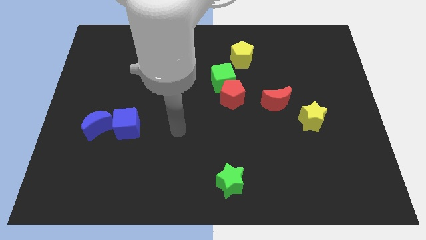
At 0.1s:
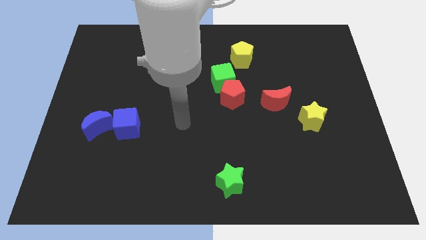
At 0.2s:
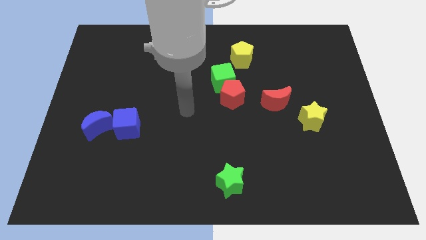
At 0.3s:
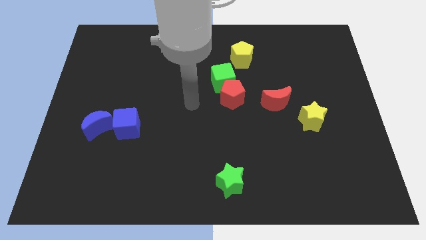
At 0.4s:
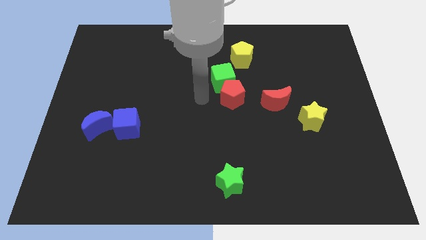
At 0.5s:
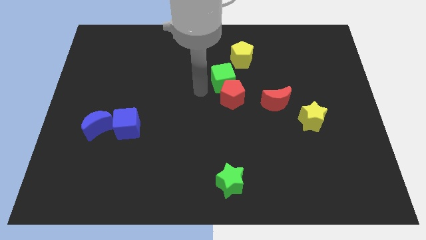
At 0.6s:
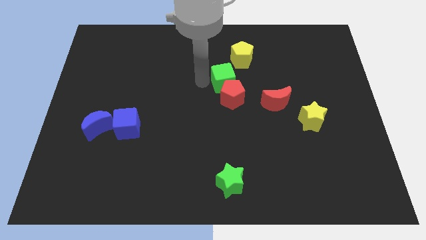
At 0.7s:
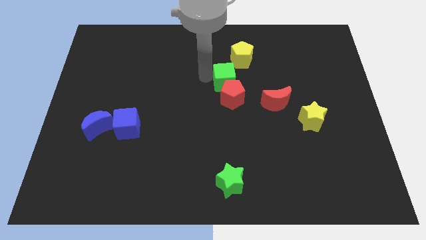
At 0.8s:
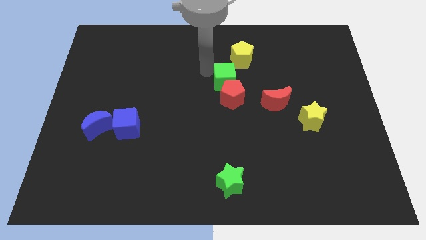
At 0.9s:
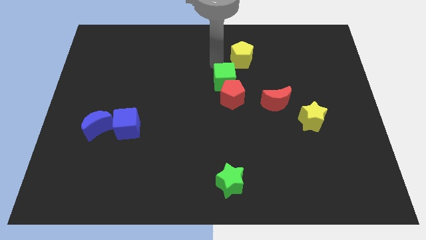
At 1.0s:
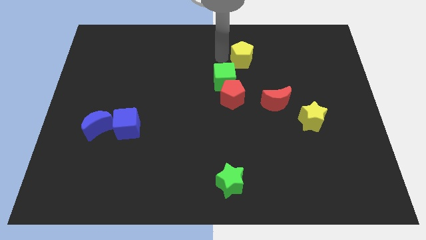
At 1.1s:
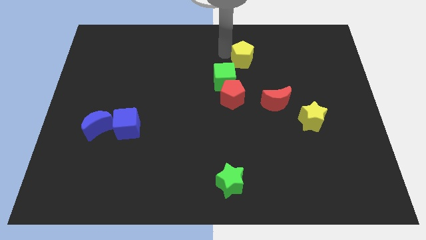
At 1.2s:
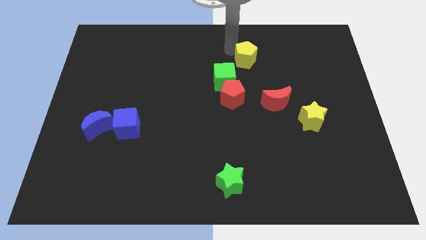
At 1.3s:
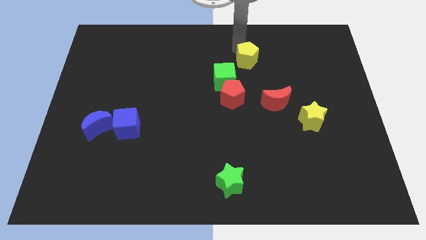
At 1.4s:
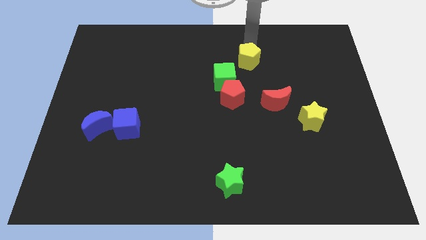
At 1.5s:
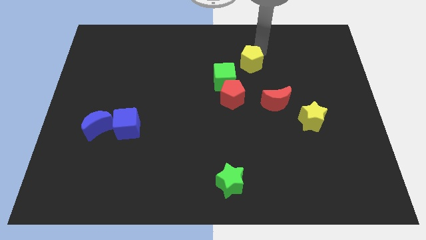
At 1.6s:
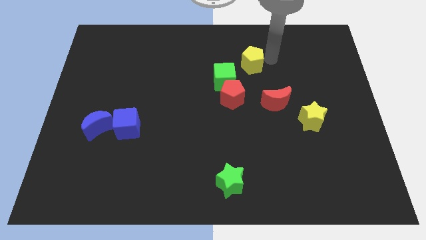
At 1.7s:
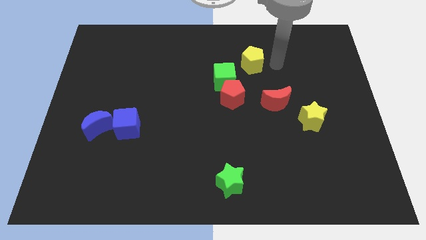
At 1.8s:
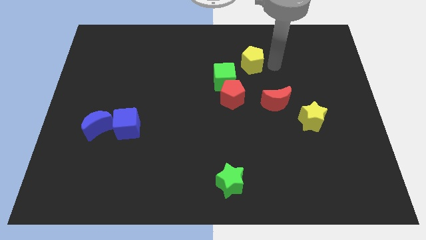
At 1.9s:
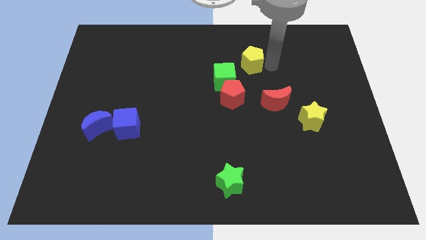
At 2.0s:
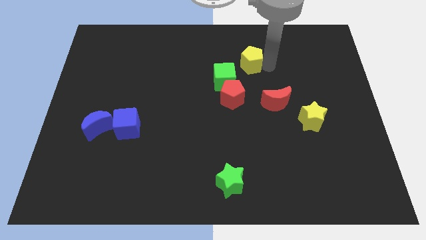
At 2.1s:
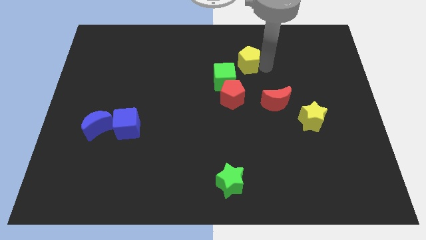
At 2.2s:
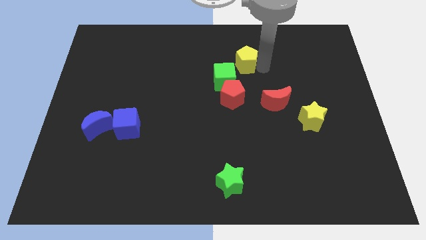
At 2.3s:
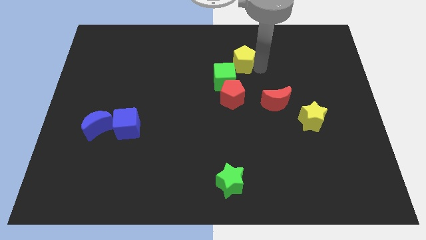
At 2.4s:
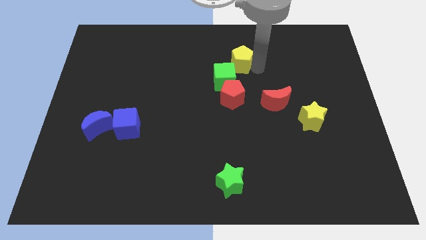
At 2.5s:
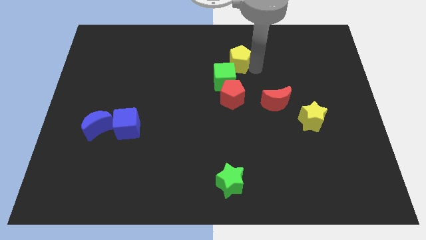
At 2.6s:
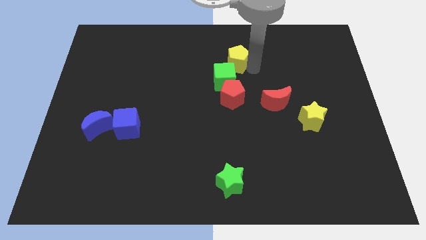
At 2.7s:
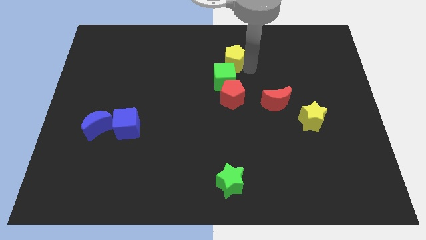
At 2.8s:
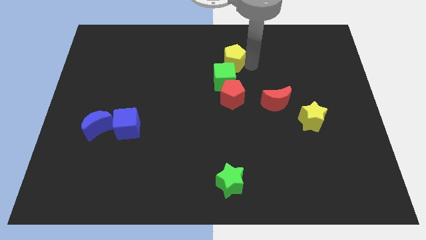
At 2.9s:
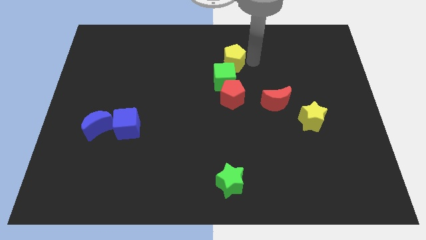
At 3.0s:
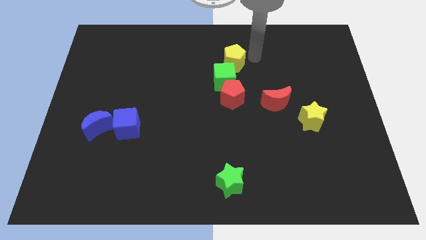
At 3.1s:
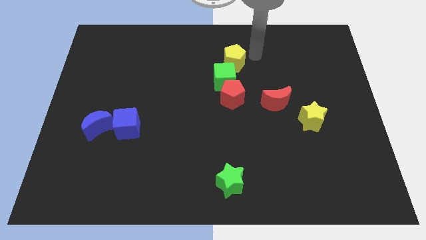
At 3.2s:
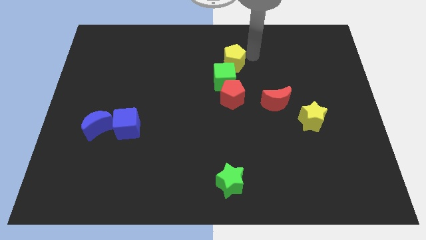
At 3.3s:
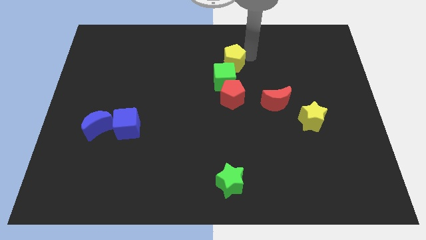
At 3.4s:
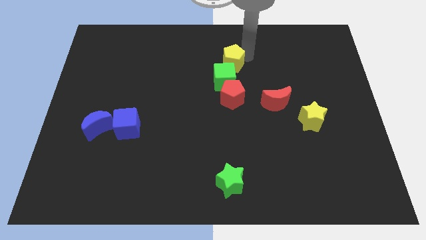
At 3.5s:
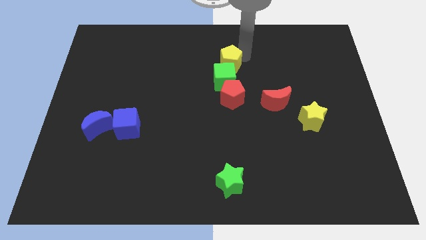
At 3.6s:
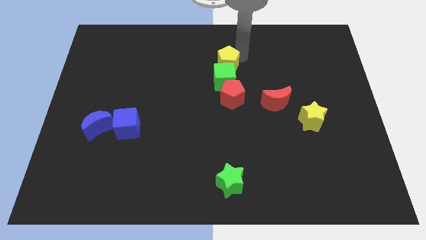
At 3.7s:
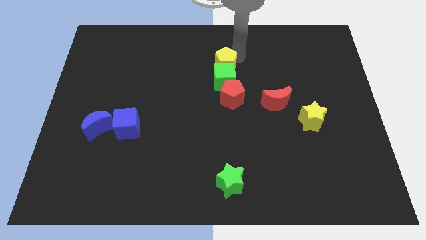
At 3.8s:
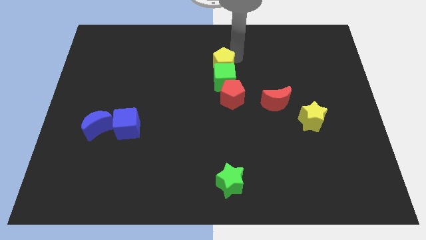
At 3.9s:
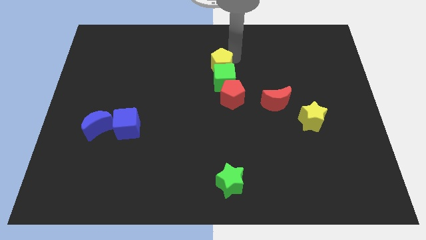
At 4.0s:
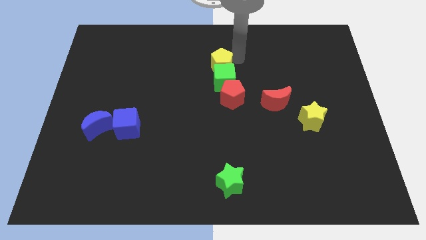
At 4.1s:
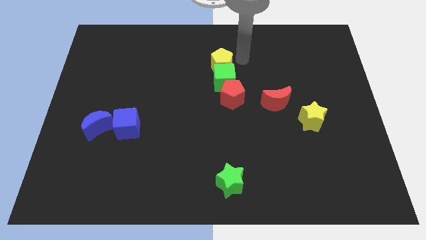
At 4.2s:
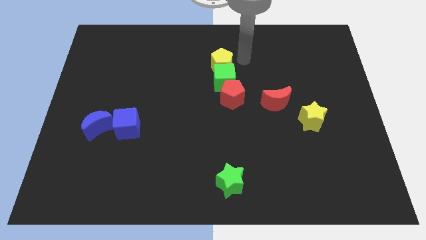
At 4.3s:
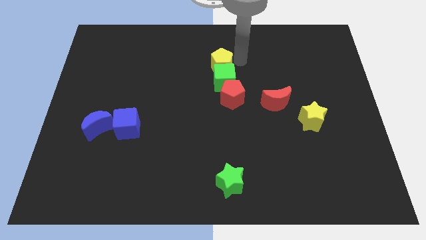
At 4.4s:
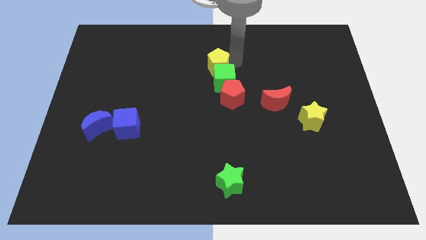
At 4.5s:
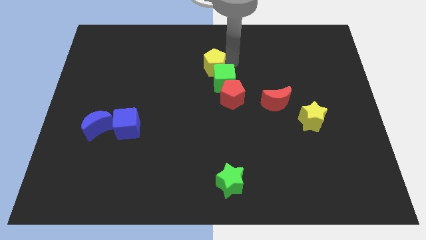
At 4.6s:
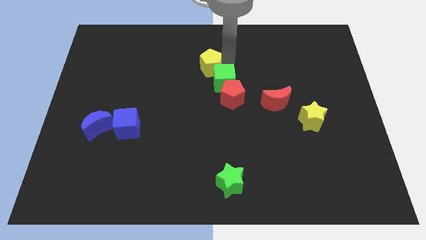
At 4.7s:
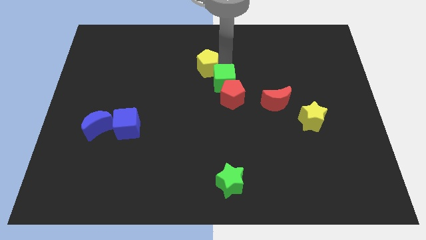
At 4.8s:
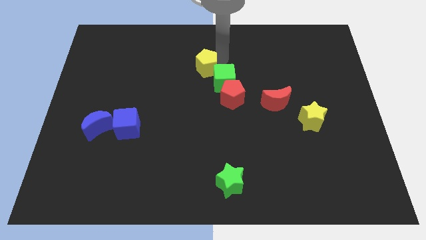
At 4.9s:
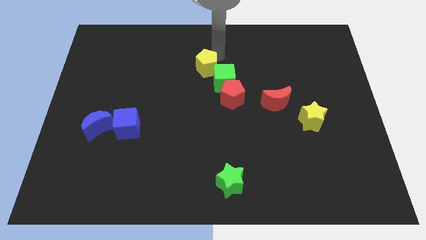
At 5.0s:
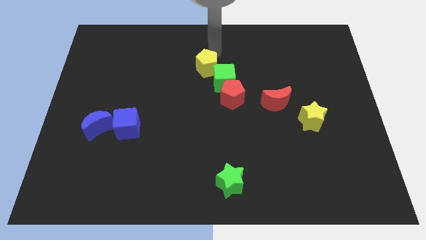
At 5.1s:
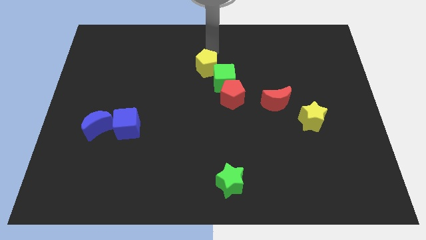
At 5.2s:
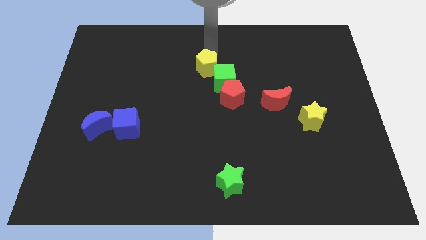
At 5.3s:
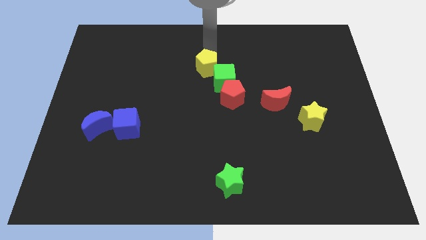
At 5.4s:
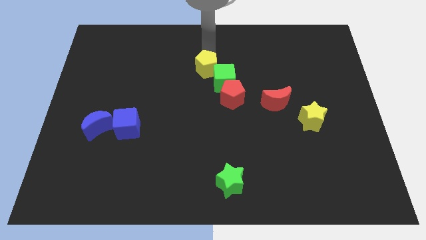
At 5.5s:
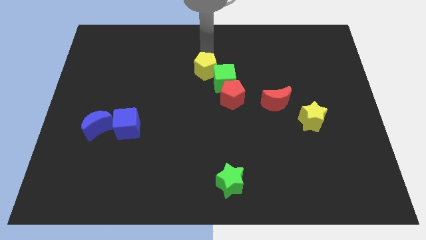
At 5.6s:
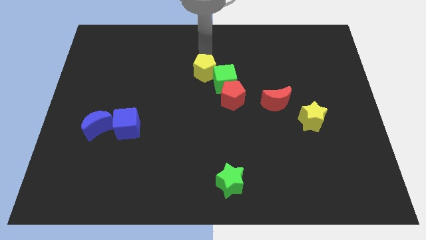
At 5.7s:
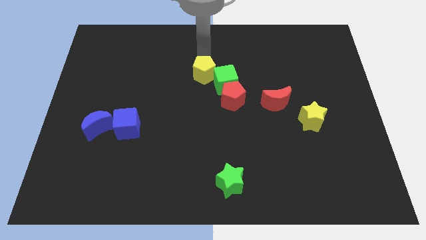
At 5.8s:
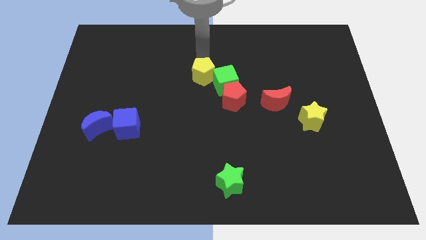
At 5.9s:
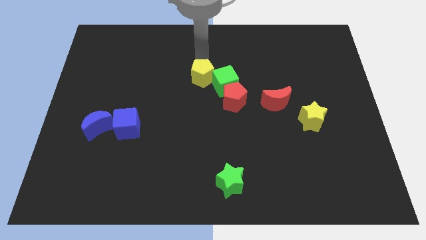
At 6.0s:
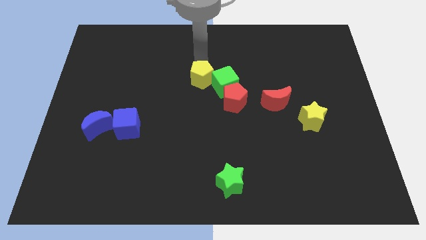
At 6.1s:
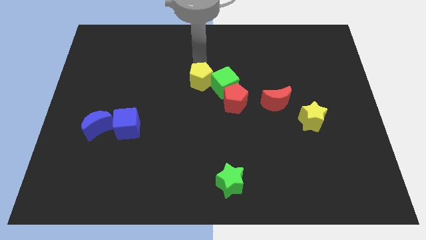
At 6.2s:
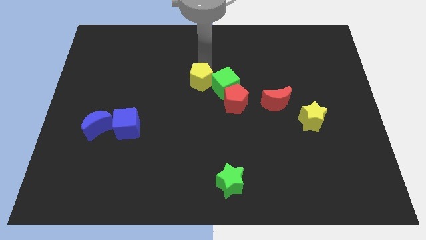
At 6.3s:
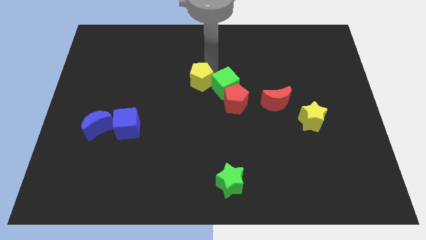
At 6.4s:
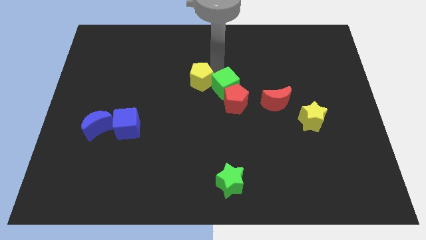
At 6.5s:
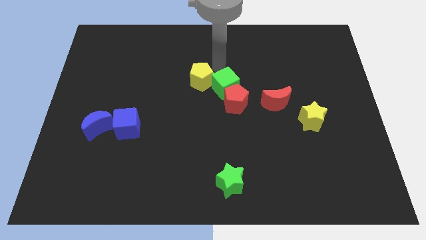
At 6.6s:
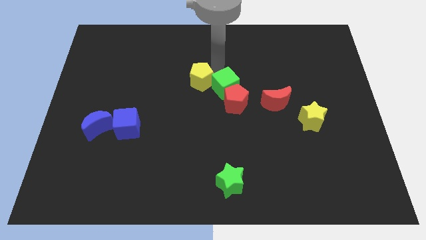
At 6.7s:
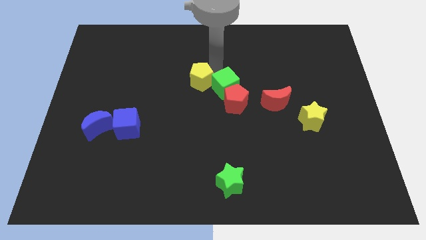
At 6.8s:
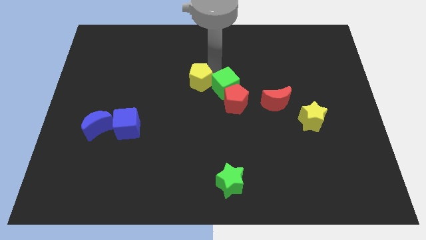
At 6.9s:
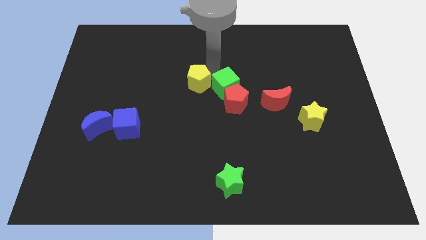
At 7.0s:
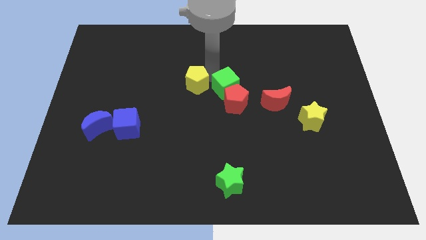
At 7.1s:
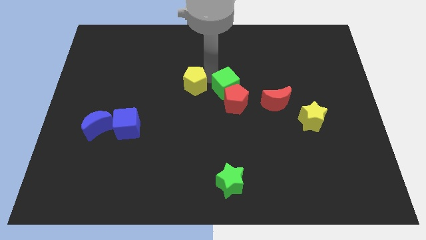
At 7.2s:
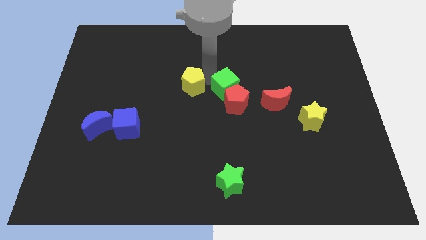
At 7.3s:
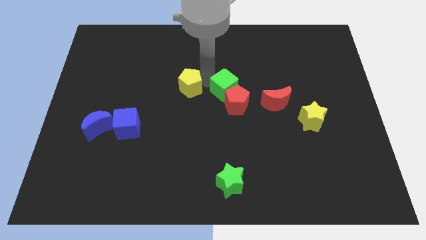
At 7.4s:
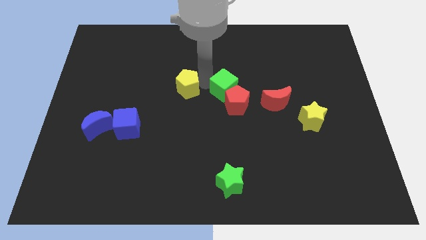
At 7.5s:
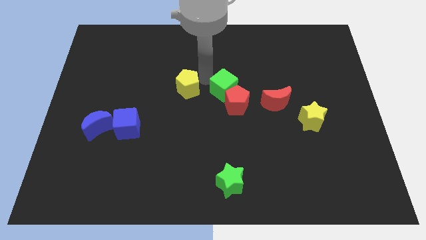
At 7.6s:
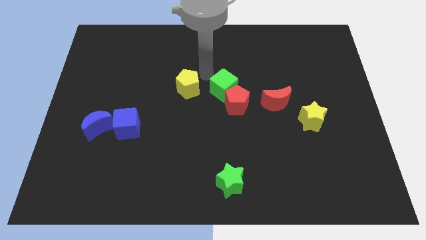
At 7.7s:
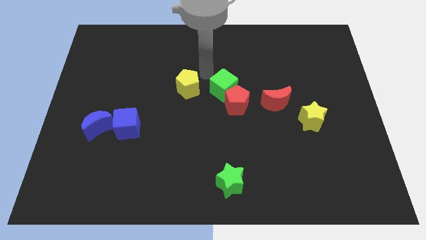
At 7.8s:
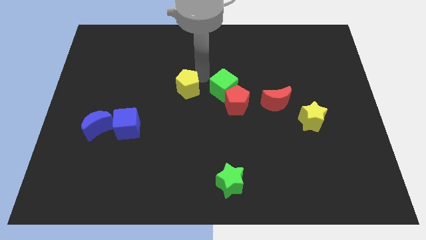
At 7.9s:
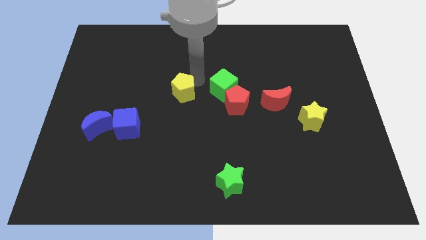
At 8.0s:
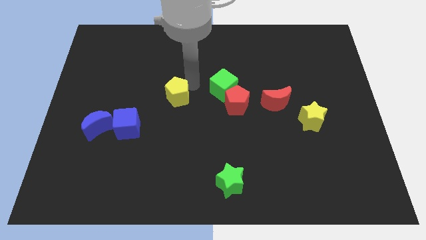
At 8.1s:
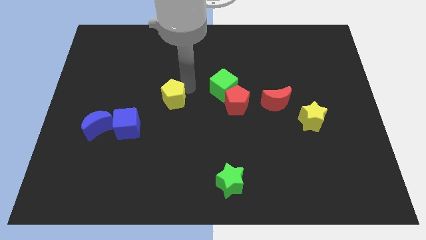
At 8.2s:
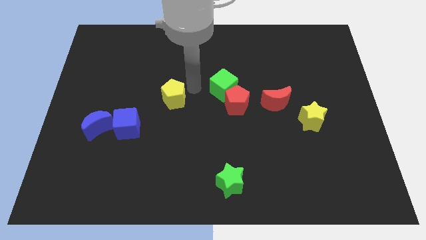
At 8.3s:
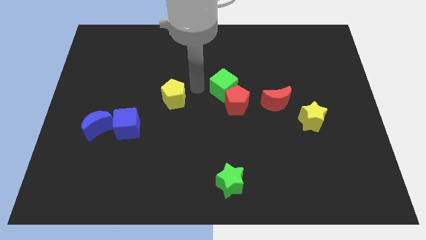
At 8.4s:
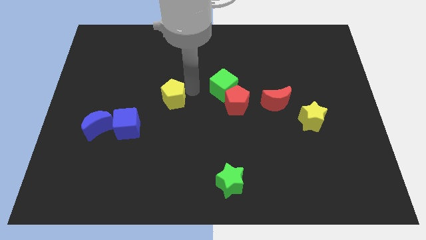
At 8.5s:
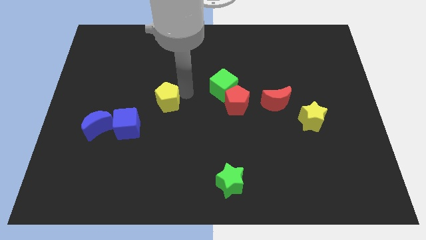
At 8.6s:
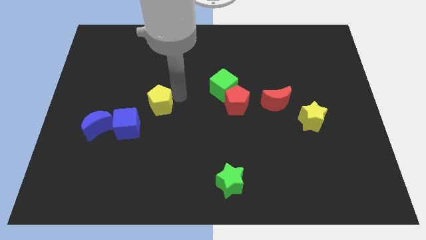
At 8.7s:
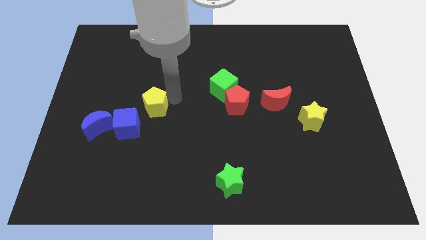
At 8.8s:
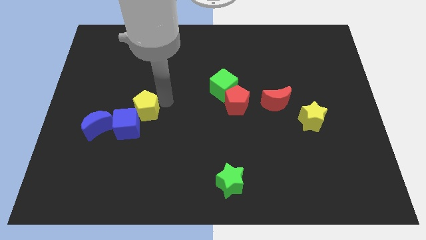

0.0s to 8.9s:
slide the yellow pentagon next to the blue cube
